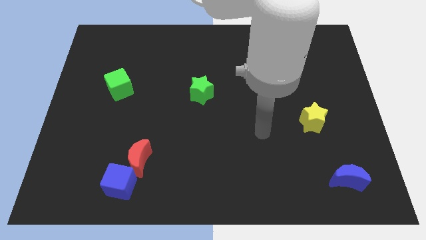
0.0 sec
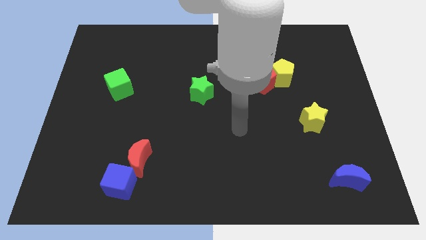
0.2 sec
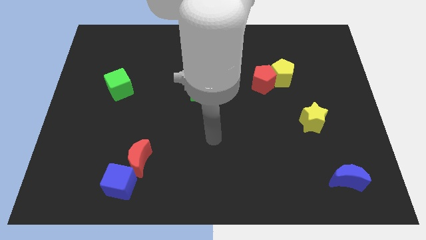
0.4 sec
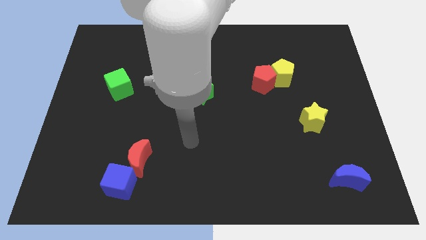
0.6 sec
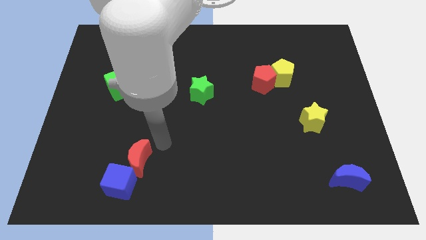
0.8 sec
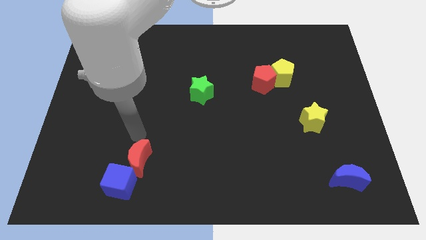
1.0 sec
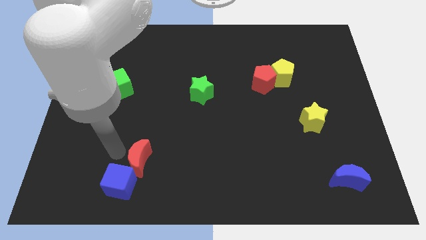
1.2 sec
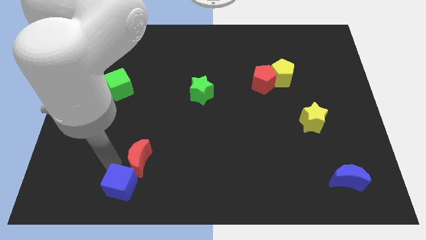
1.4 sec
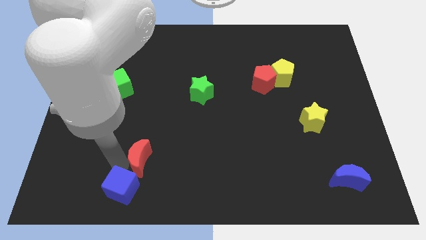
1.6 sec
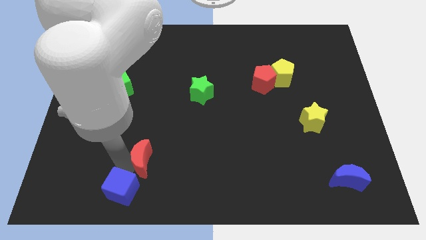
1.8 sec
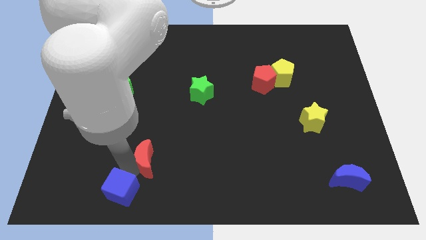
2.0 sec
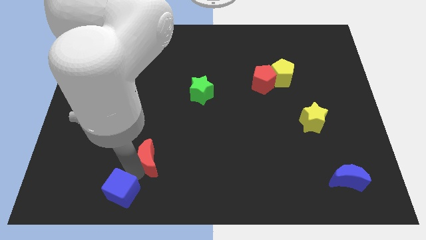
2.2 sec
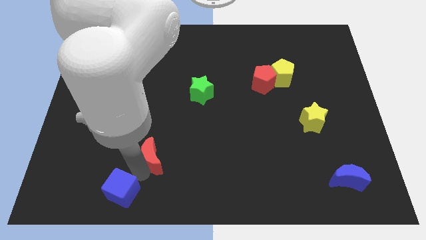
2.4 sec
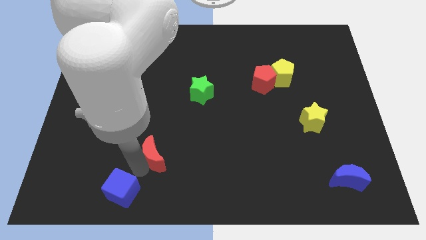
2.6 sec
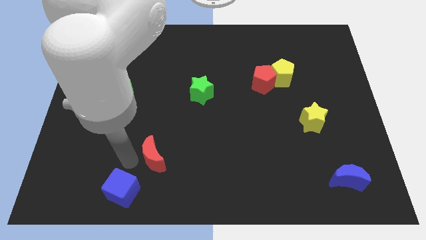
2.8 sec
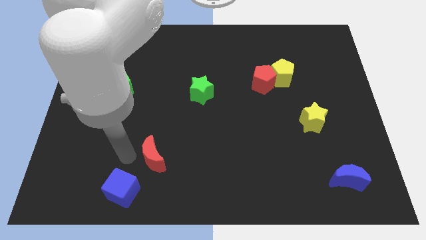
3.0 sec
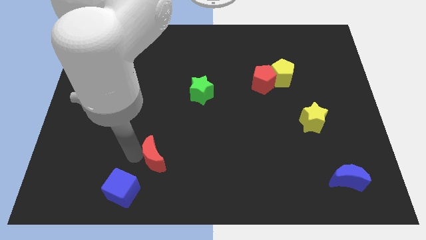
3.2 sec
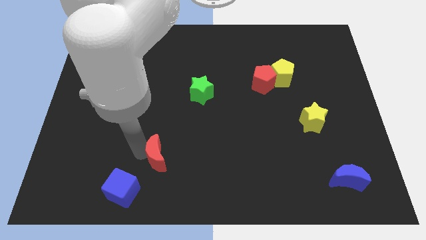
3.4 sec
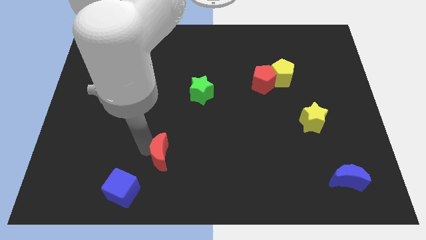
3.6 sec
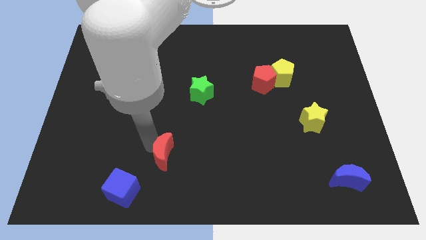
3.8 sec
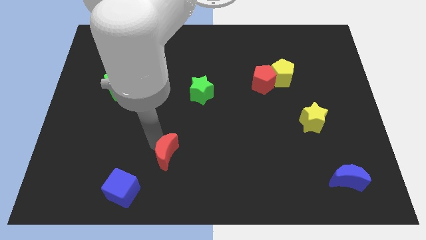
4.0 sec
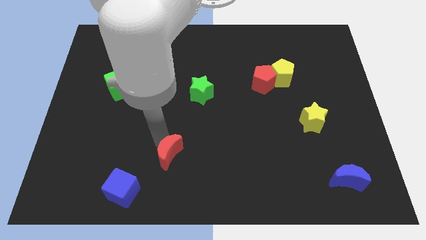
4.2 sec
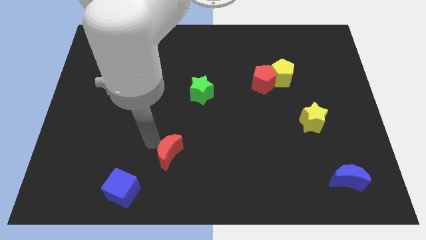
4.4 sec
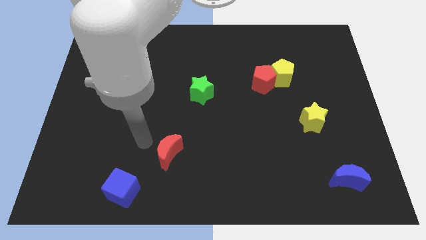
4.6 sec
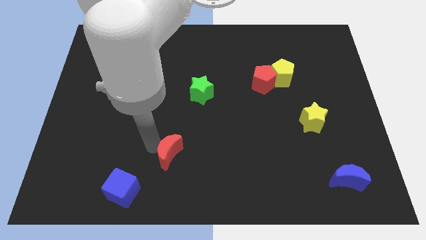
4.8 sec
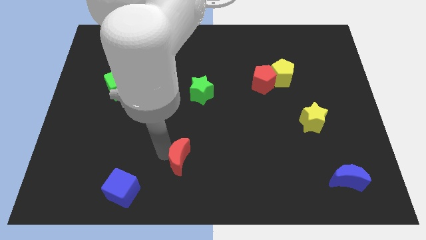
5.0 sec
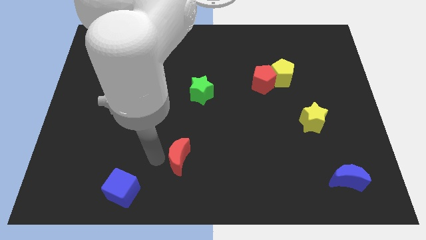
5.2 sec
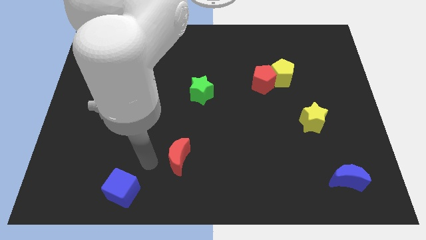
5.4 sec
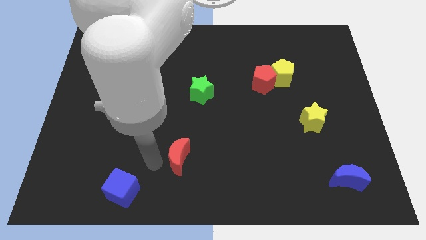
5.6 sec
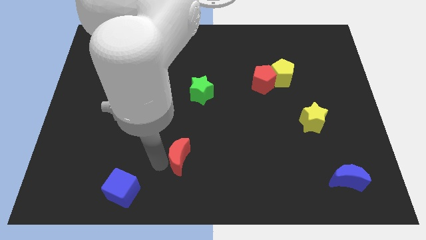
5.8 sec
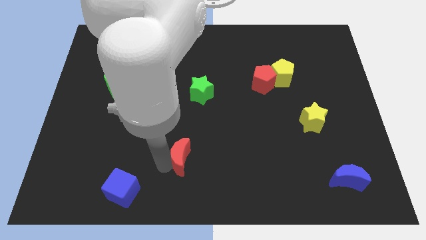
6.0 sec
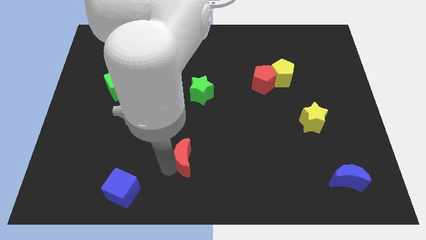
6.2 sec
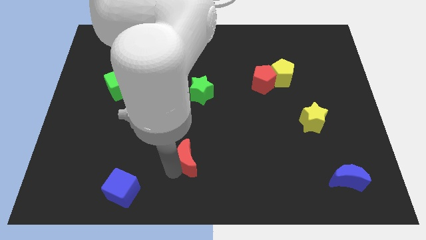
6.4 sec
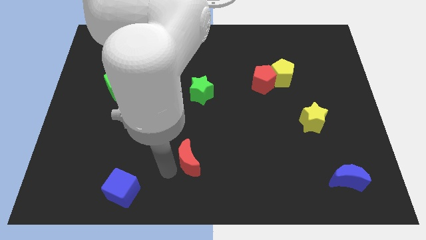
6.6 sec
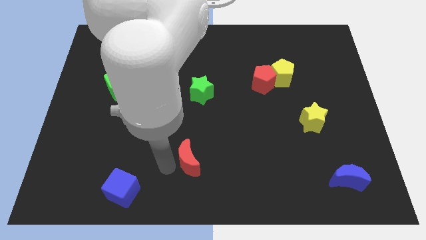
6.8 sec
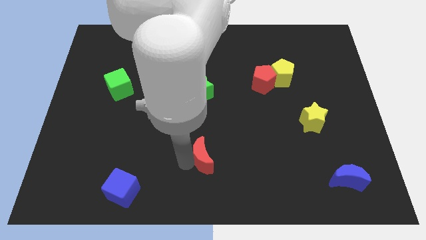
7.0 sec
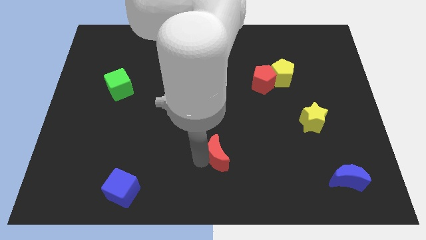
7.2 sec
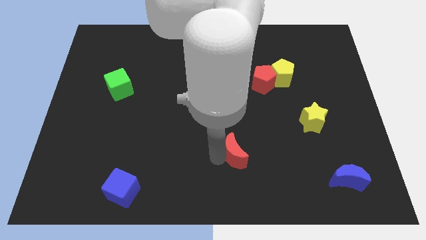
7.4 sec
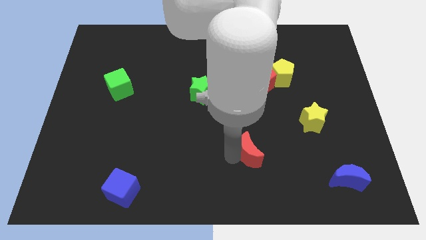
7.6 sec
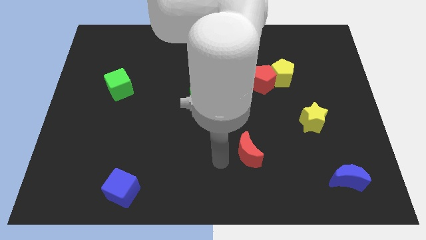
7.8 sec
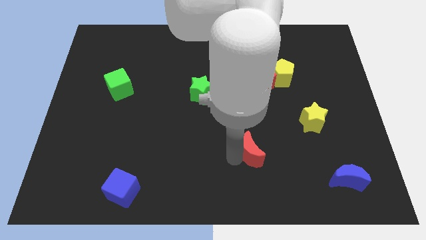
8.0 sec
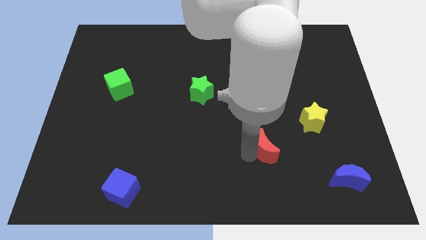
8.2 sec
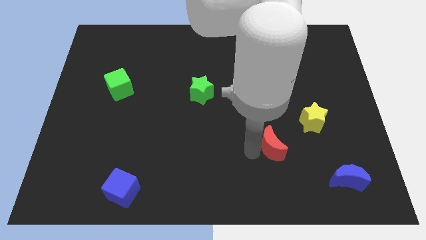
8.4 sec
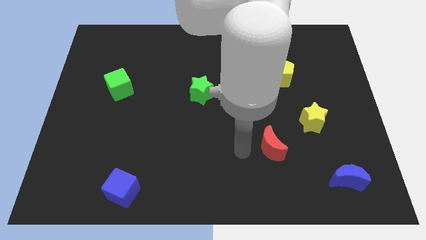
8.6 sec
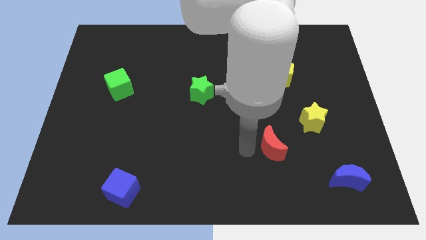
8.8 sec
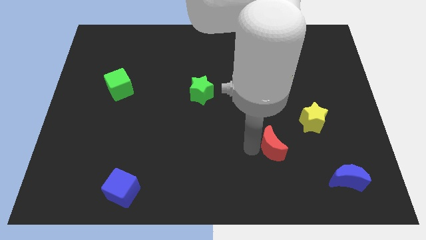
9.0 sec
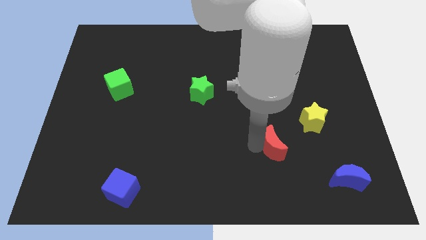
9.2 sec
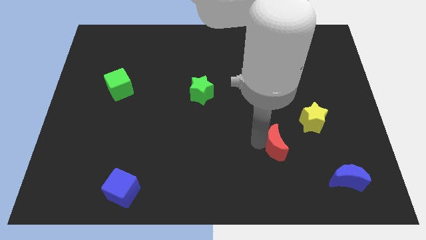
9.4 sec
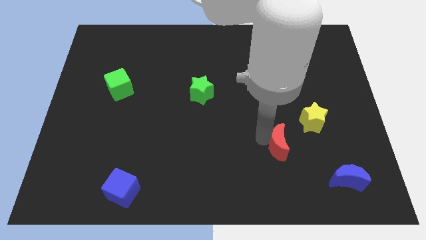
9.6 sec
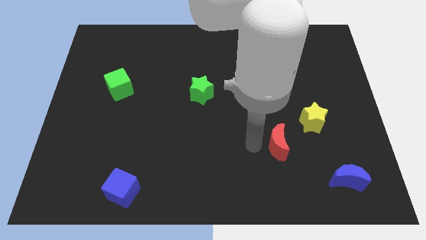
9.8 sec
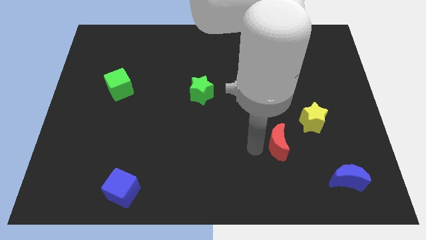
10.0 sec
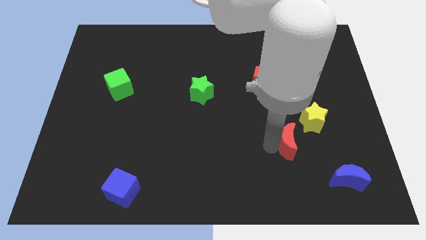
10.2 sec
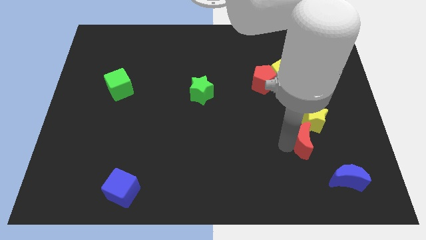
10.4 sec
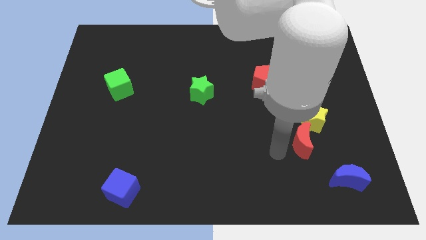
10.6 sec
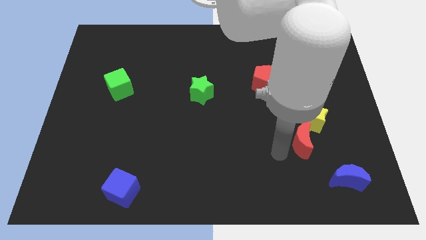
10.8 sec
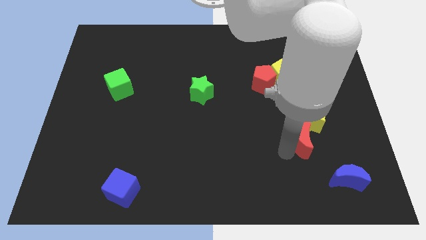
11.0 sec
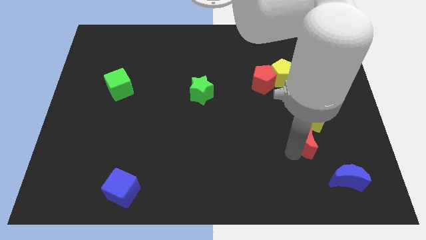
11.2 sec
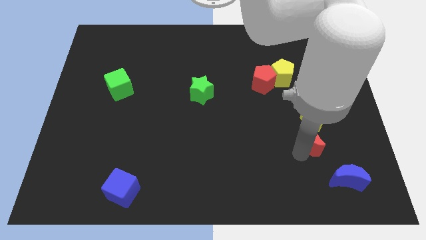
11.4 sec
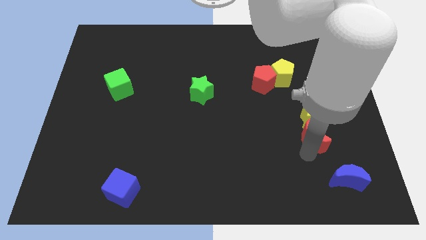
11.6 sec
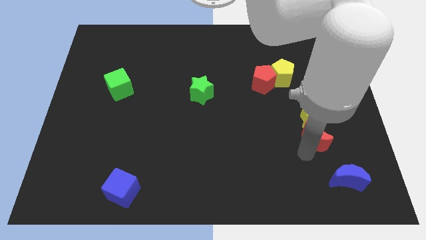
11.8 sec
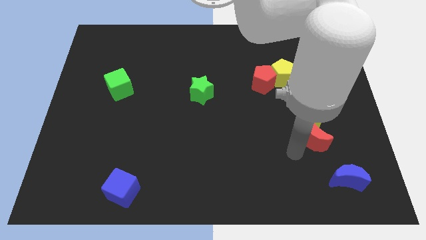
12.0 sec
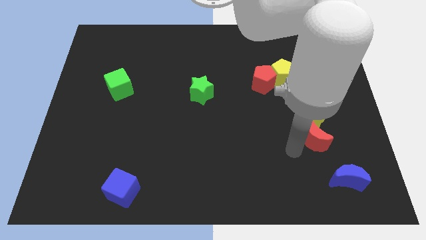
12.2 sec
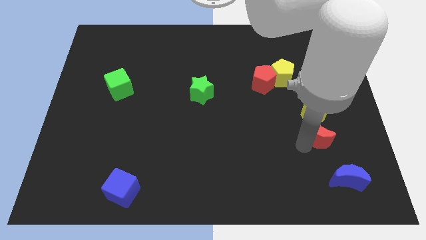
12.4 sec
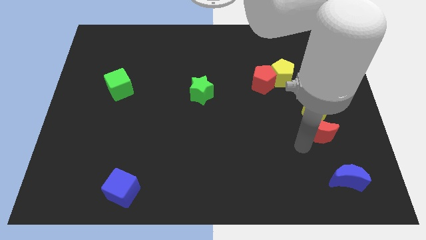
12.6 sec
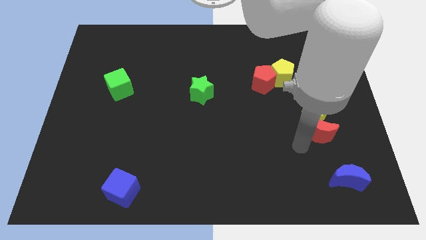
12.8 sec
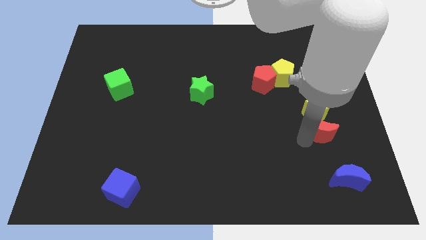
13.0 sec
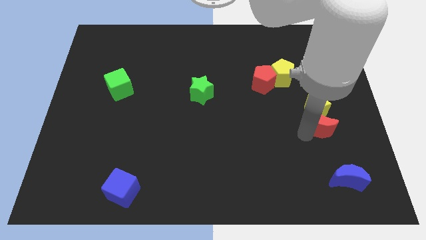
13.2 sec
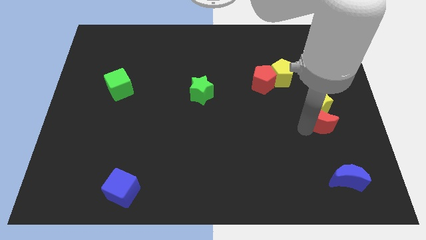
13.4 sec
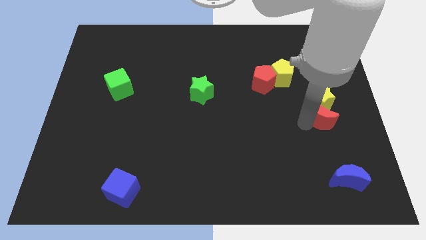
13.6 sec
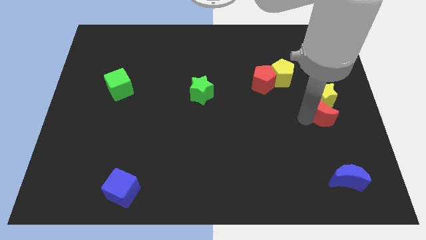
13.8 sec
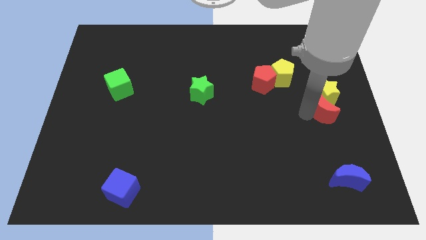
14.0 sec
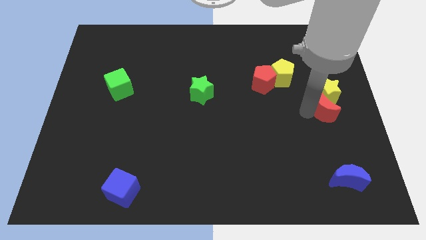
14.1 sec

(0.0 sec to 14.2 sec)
put the red moon to the right side
